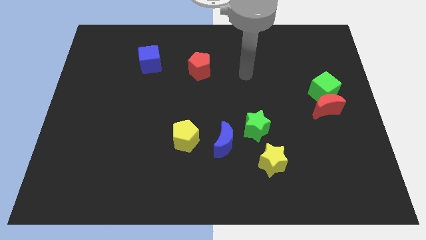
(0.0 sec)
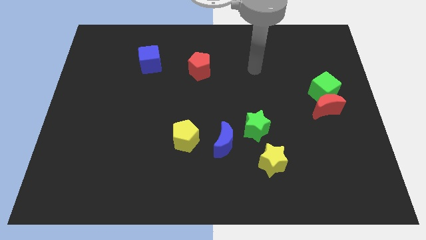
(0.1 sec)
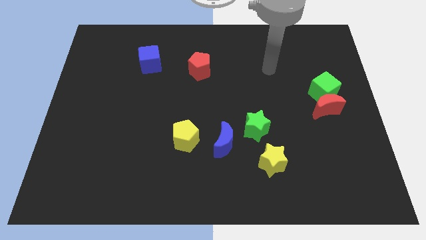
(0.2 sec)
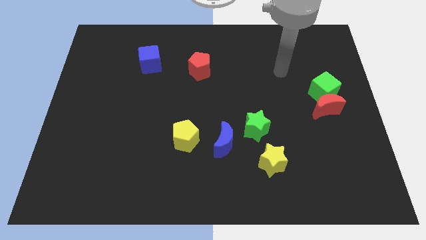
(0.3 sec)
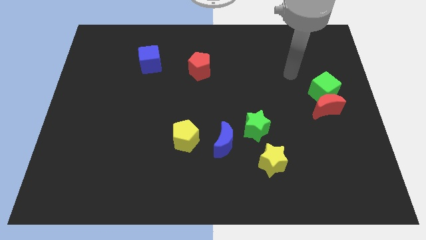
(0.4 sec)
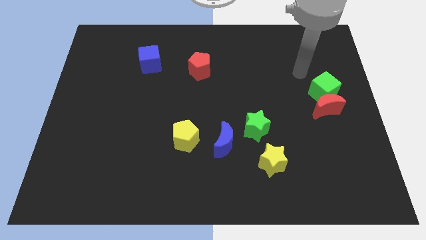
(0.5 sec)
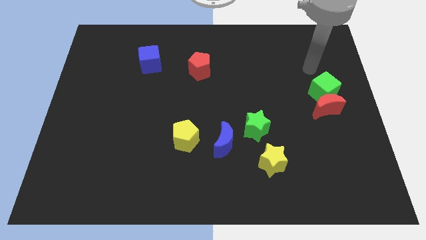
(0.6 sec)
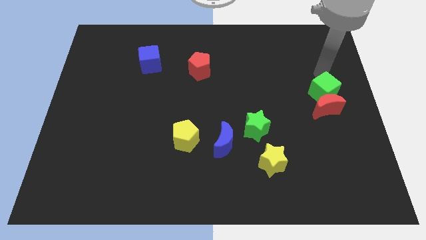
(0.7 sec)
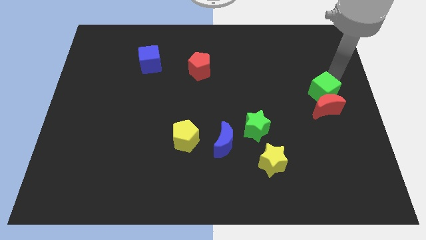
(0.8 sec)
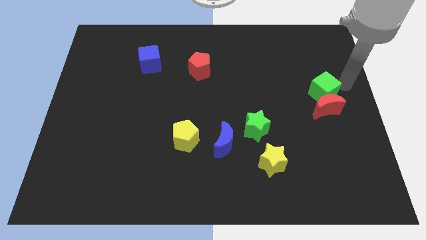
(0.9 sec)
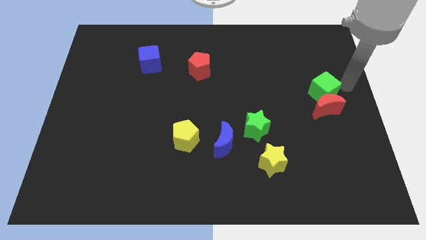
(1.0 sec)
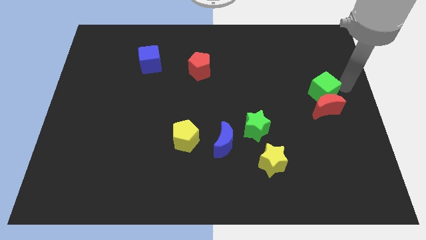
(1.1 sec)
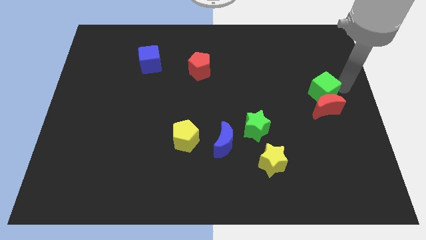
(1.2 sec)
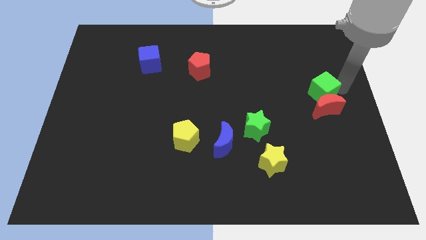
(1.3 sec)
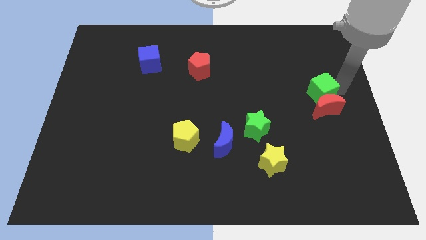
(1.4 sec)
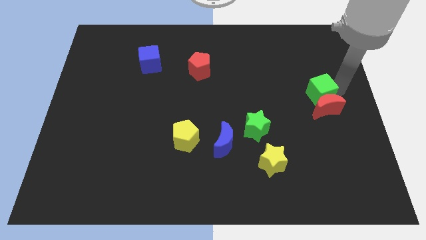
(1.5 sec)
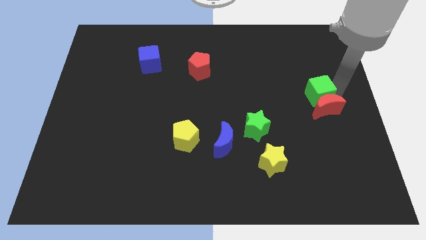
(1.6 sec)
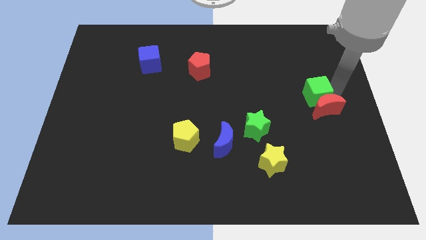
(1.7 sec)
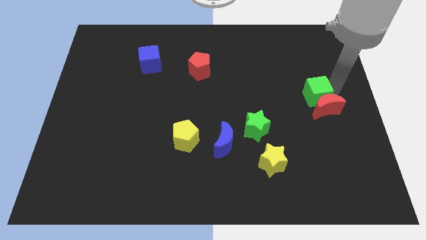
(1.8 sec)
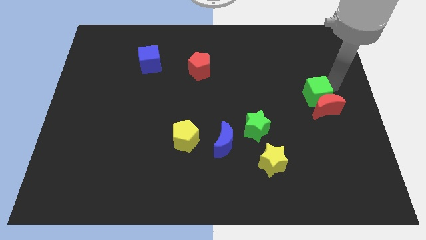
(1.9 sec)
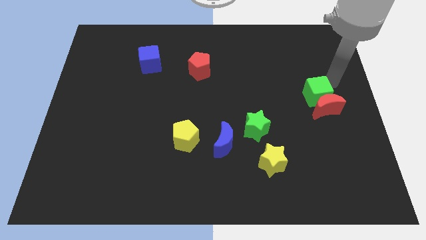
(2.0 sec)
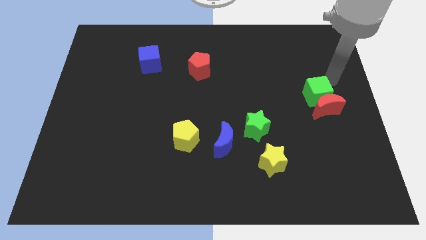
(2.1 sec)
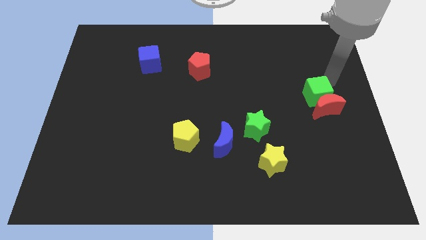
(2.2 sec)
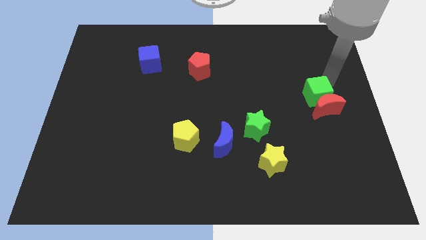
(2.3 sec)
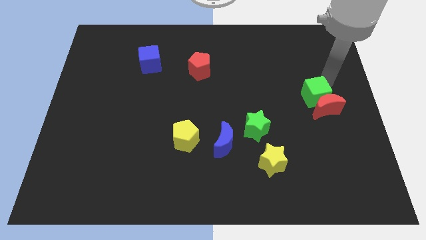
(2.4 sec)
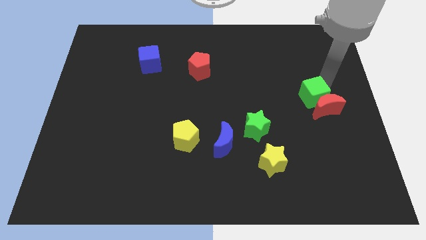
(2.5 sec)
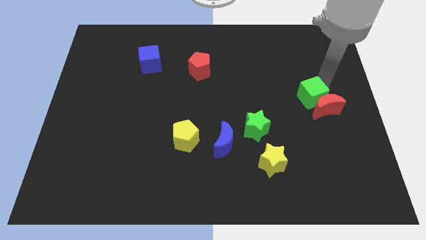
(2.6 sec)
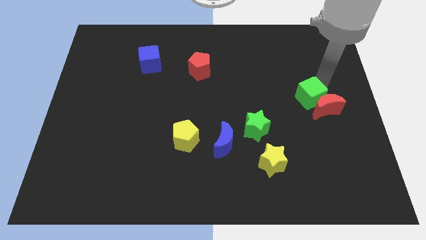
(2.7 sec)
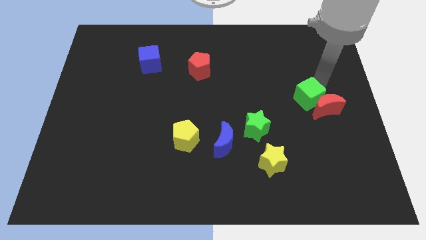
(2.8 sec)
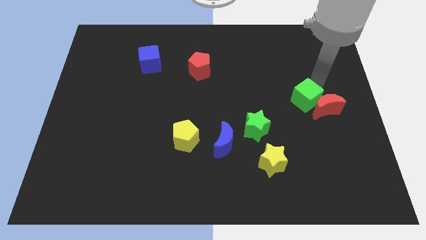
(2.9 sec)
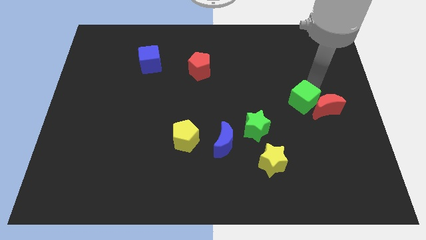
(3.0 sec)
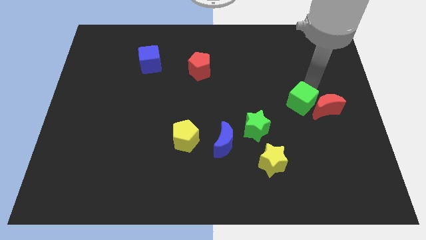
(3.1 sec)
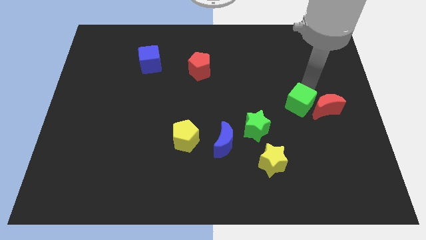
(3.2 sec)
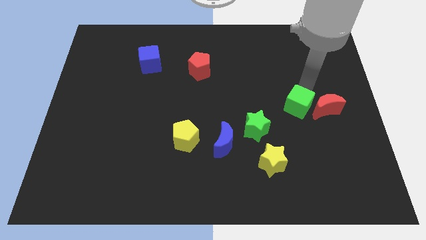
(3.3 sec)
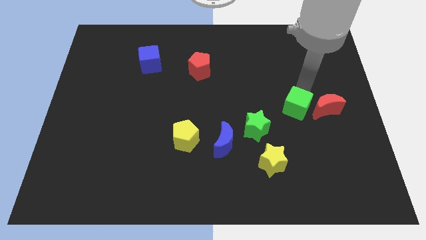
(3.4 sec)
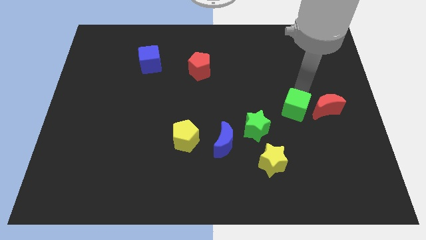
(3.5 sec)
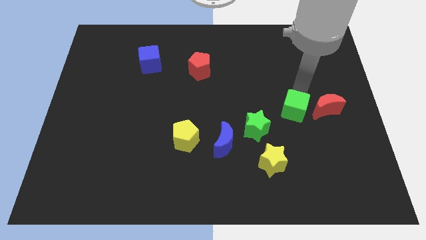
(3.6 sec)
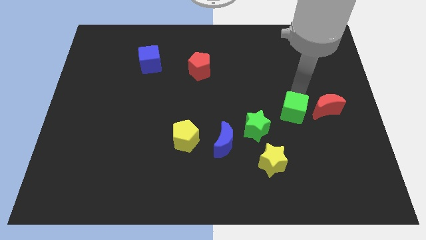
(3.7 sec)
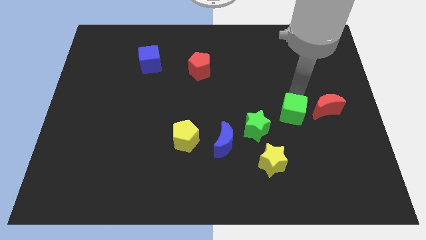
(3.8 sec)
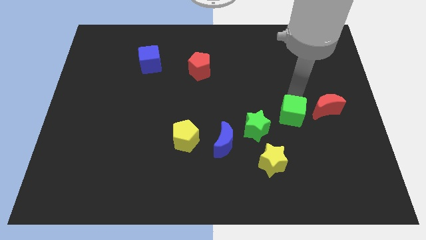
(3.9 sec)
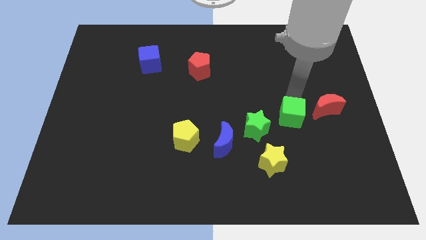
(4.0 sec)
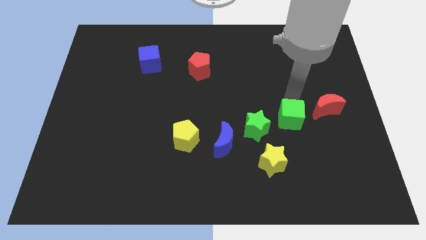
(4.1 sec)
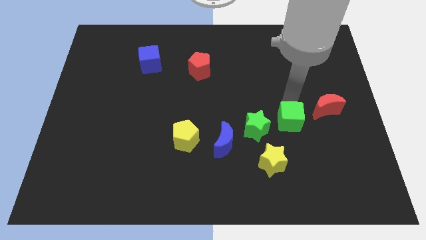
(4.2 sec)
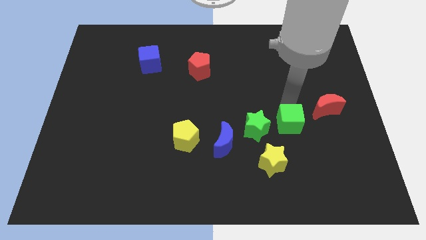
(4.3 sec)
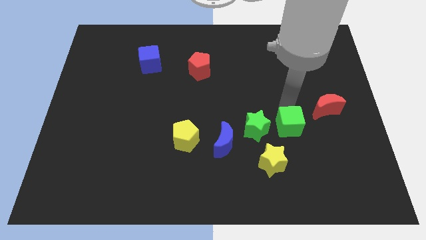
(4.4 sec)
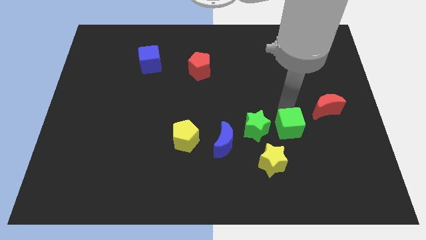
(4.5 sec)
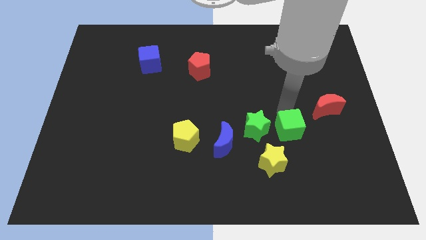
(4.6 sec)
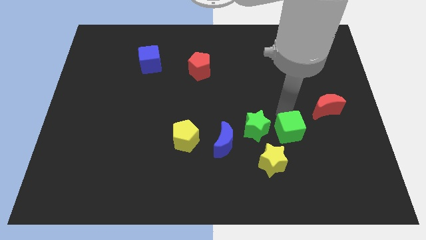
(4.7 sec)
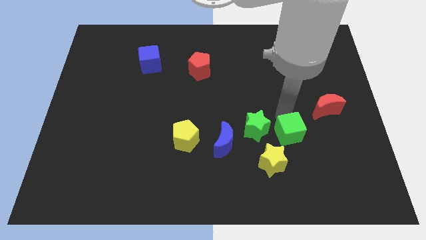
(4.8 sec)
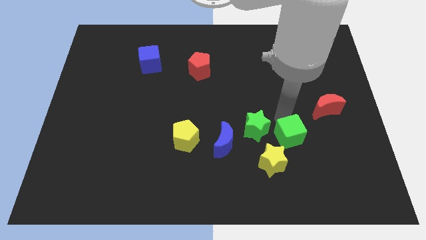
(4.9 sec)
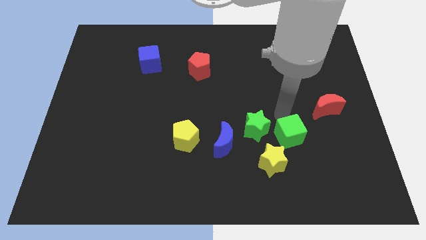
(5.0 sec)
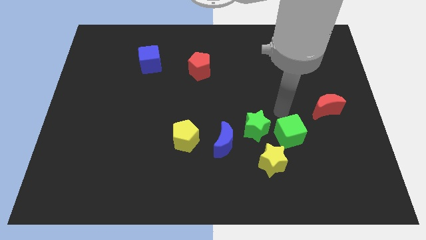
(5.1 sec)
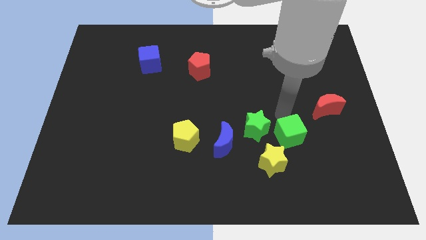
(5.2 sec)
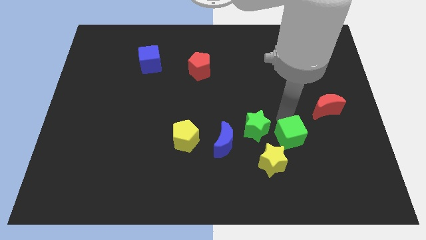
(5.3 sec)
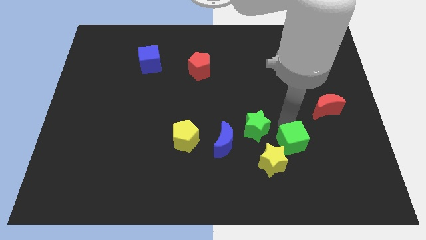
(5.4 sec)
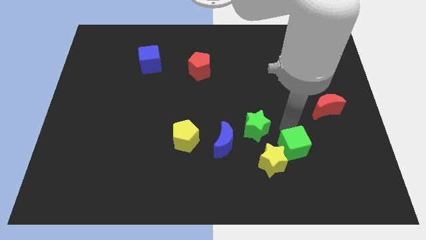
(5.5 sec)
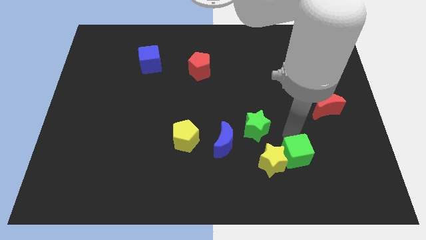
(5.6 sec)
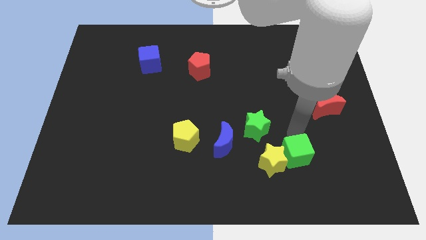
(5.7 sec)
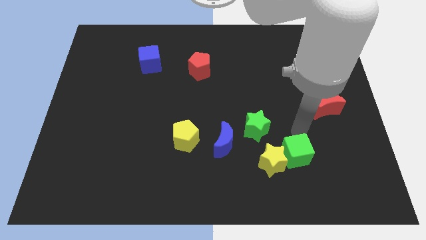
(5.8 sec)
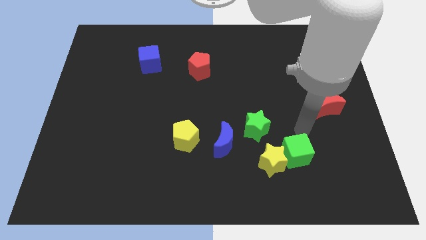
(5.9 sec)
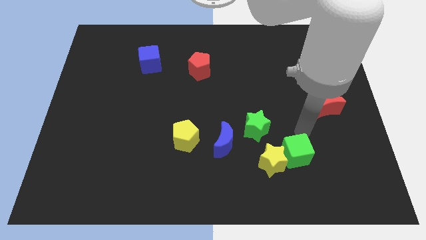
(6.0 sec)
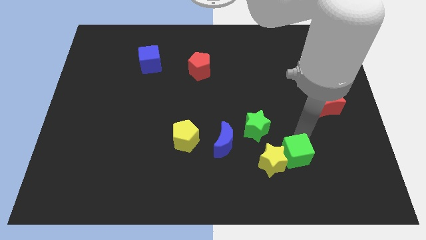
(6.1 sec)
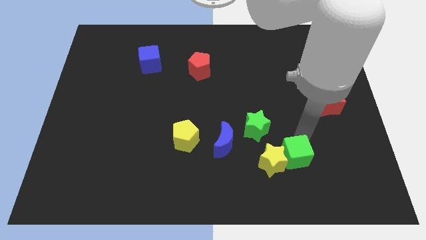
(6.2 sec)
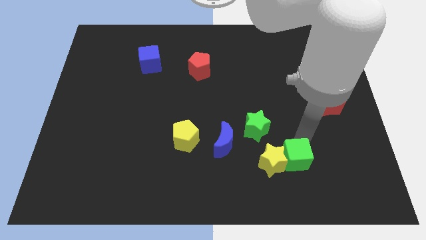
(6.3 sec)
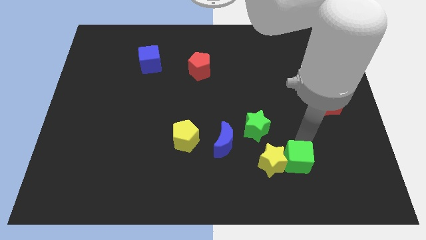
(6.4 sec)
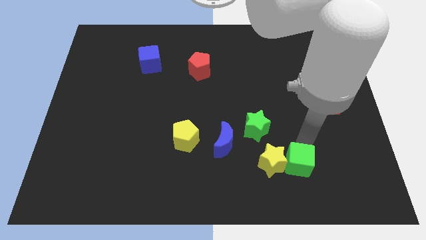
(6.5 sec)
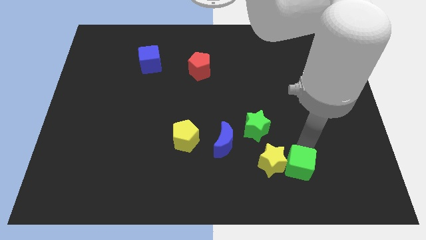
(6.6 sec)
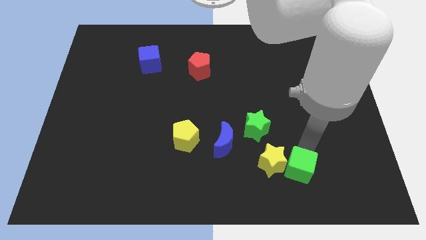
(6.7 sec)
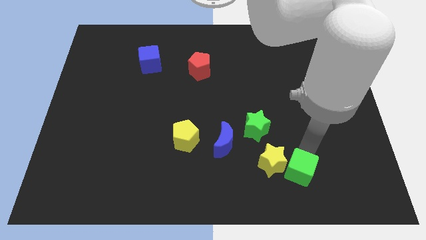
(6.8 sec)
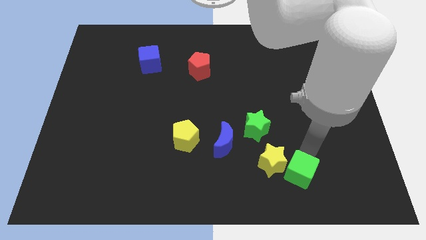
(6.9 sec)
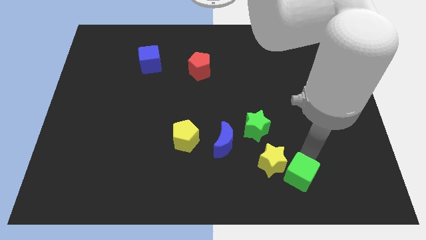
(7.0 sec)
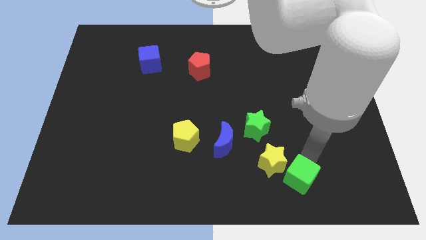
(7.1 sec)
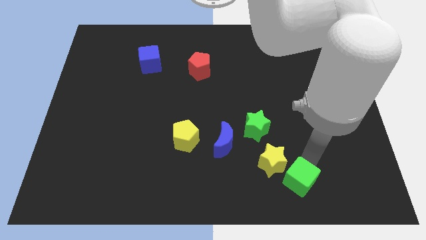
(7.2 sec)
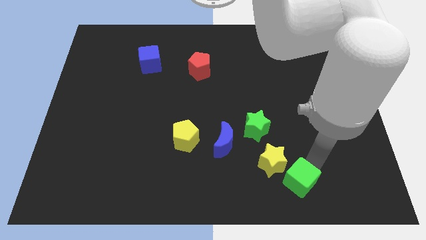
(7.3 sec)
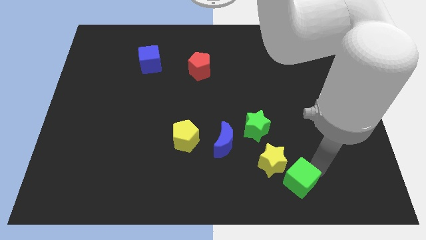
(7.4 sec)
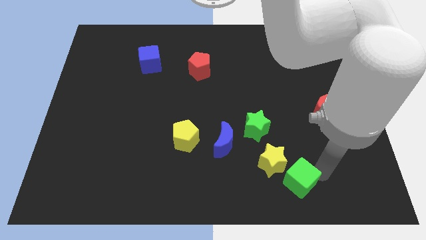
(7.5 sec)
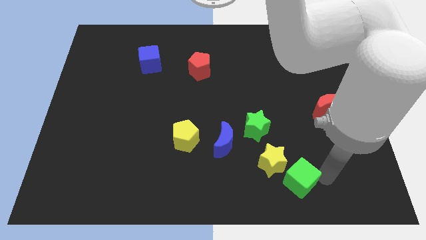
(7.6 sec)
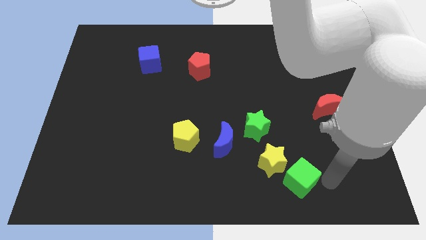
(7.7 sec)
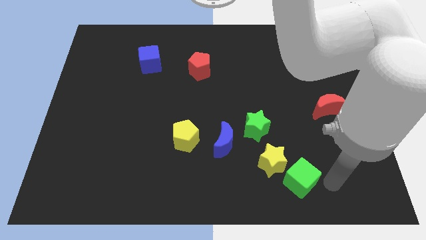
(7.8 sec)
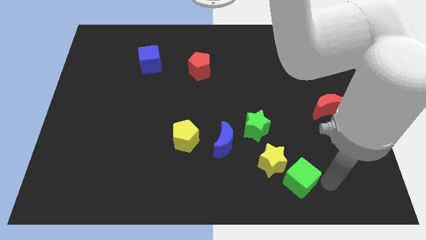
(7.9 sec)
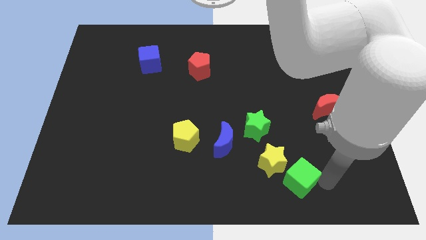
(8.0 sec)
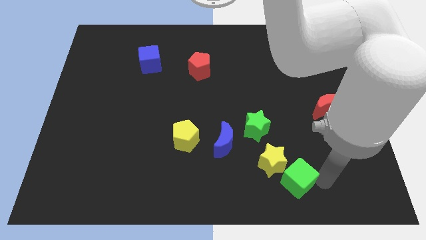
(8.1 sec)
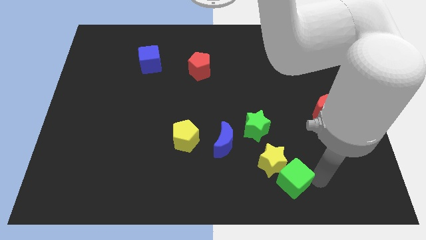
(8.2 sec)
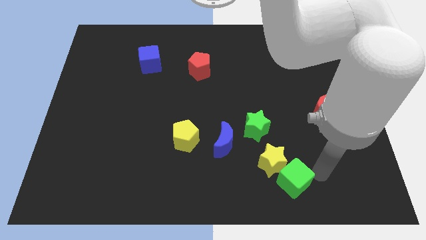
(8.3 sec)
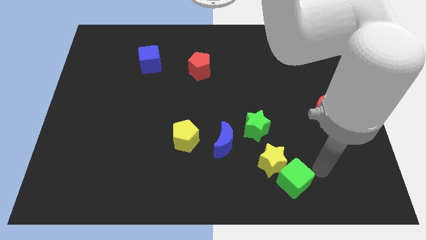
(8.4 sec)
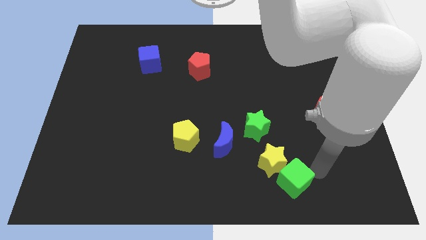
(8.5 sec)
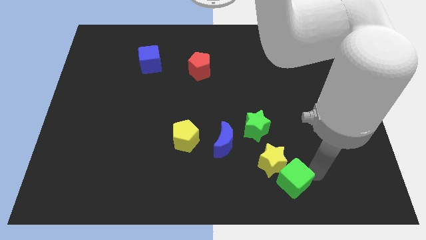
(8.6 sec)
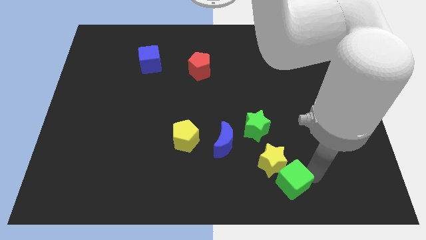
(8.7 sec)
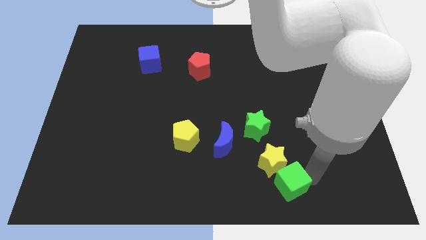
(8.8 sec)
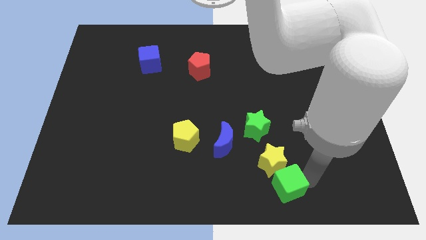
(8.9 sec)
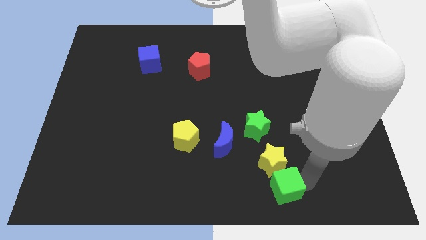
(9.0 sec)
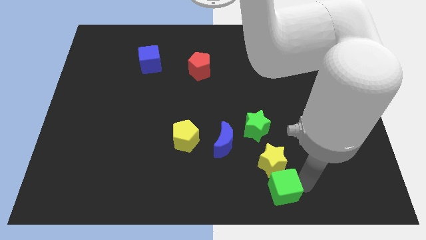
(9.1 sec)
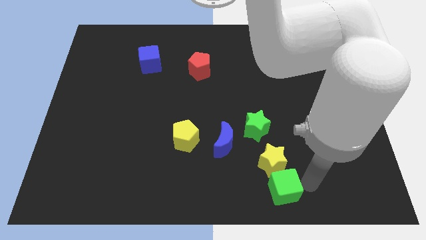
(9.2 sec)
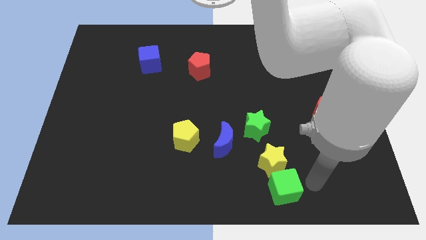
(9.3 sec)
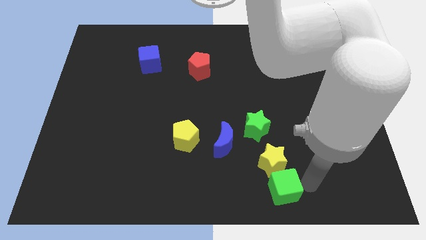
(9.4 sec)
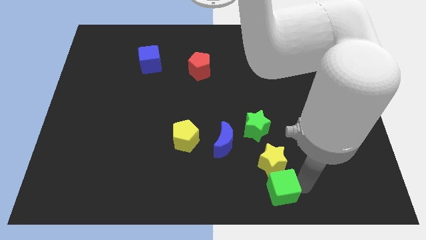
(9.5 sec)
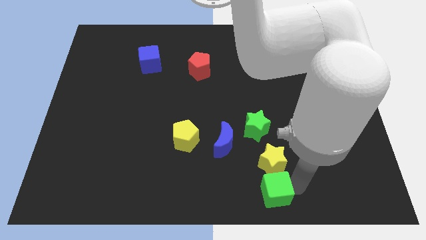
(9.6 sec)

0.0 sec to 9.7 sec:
move the green cube to the bottom side
